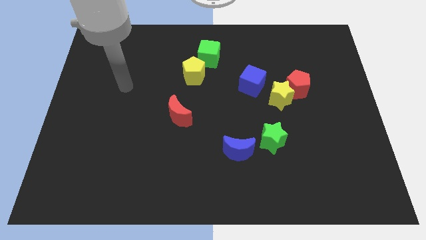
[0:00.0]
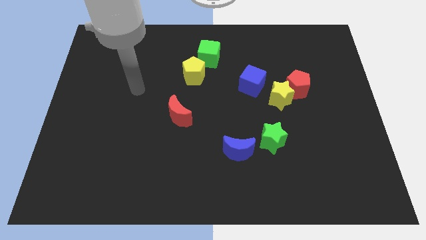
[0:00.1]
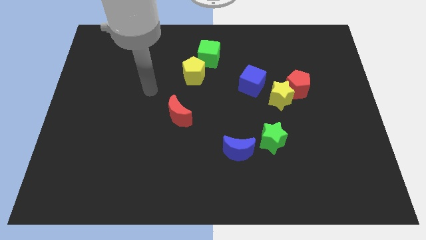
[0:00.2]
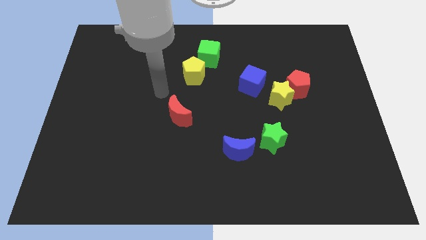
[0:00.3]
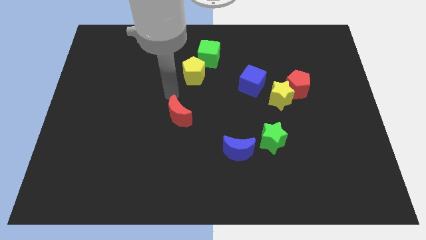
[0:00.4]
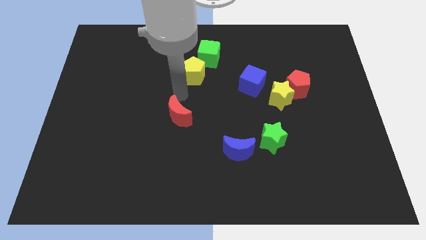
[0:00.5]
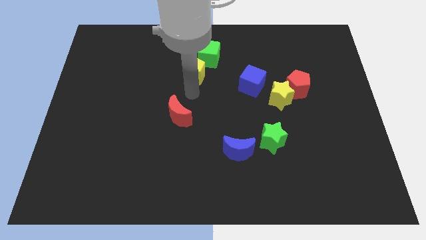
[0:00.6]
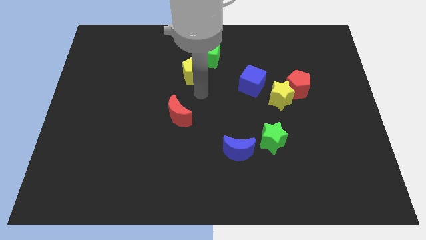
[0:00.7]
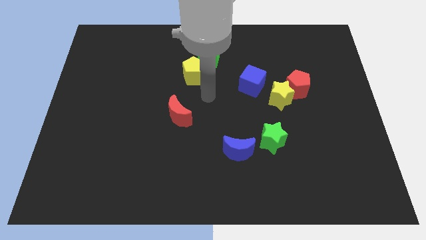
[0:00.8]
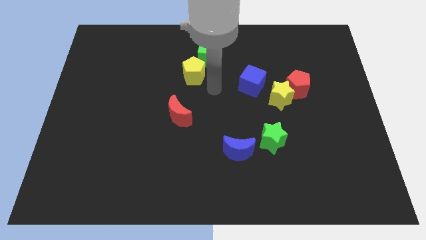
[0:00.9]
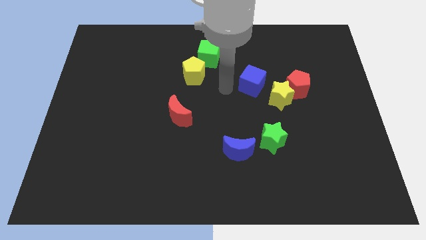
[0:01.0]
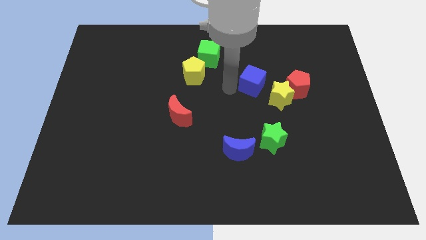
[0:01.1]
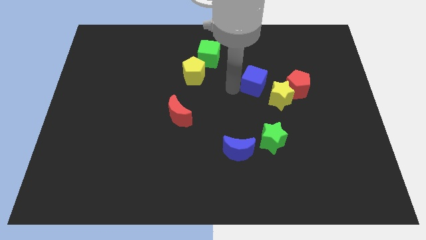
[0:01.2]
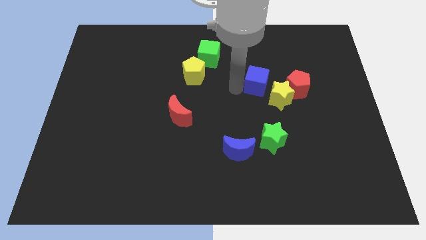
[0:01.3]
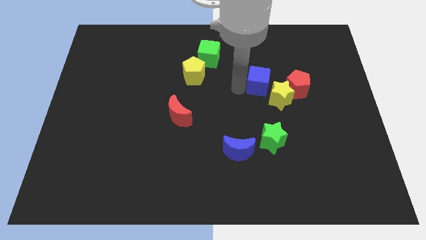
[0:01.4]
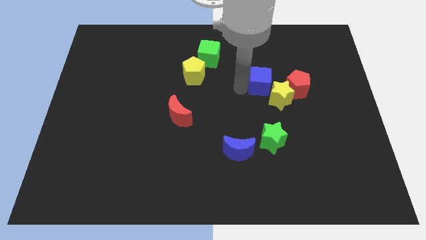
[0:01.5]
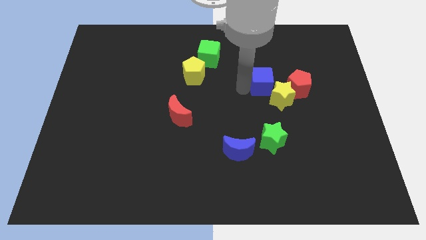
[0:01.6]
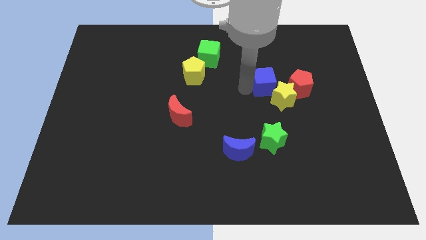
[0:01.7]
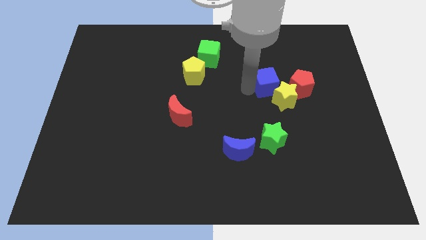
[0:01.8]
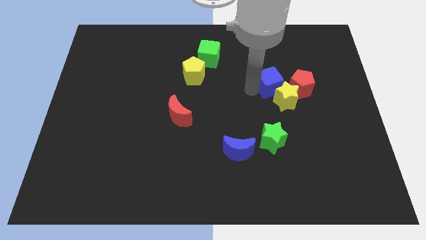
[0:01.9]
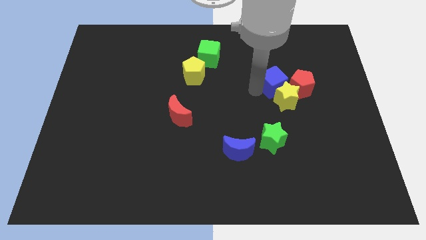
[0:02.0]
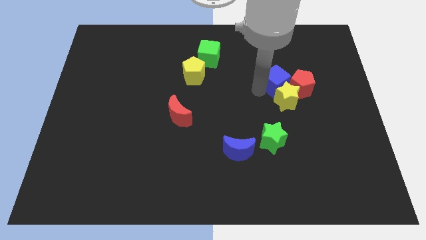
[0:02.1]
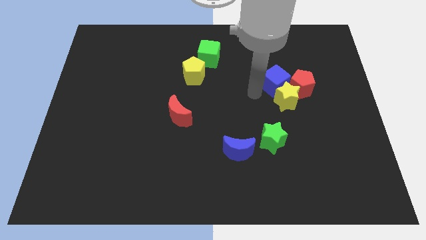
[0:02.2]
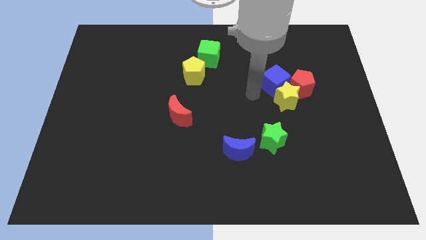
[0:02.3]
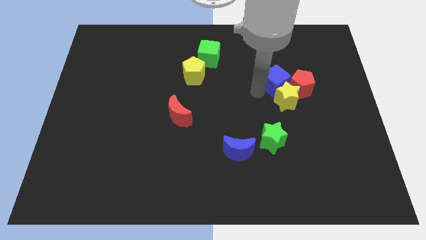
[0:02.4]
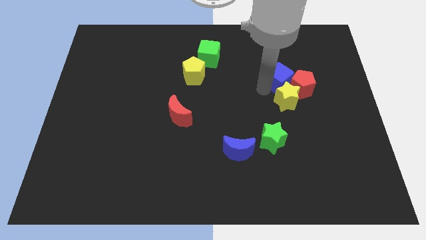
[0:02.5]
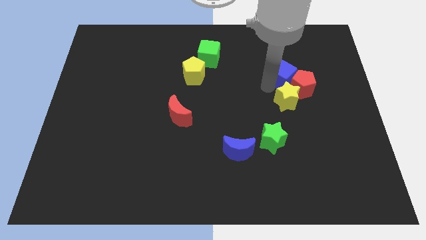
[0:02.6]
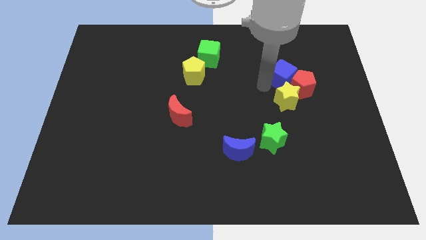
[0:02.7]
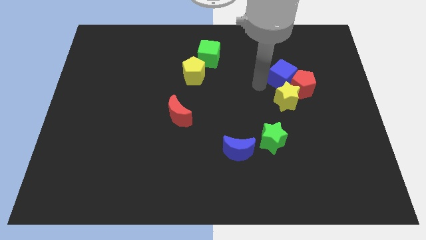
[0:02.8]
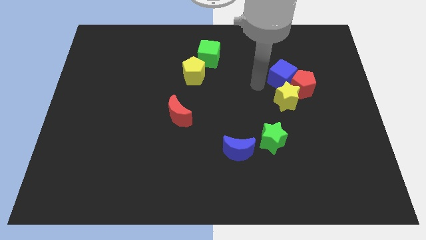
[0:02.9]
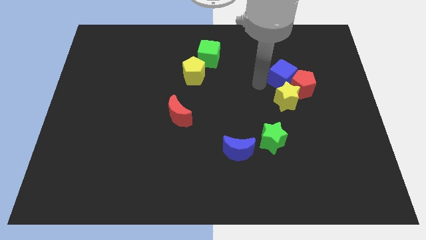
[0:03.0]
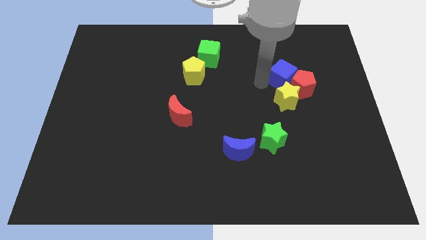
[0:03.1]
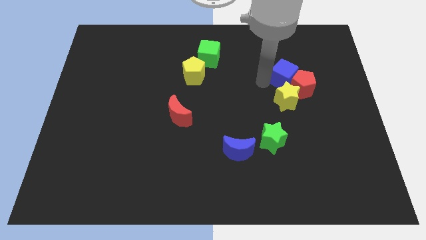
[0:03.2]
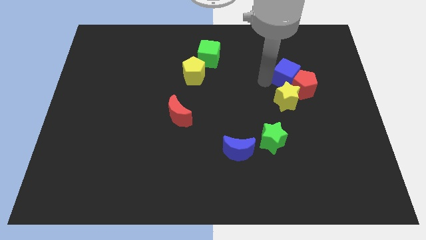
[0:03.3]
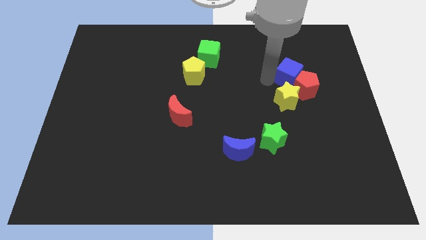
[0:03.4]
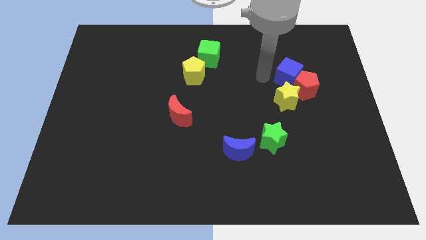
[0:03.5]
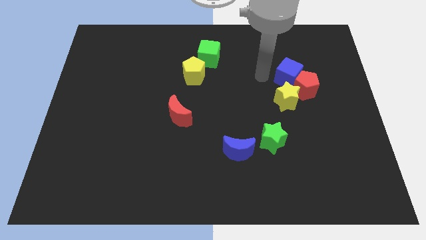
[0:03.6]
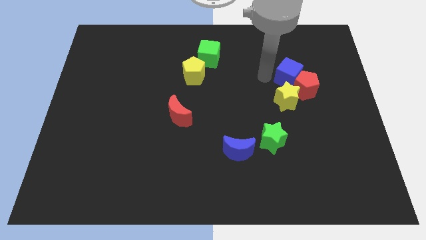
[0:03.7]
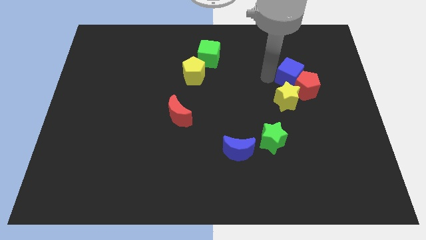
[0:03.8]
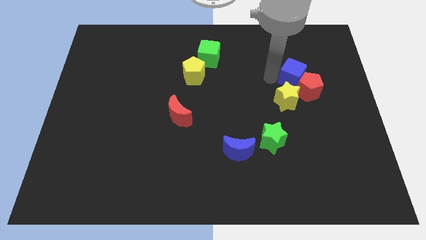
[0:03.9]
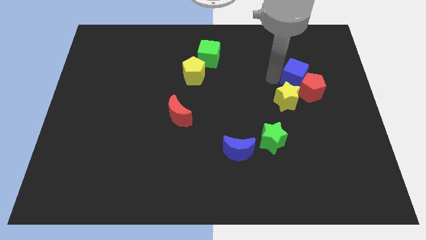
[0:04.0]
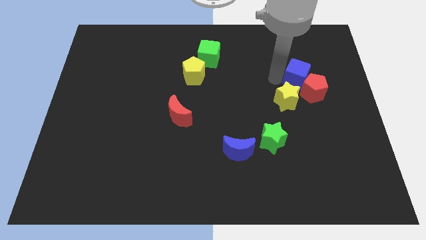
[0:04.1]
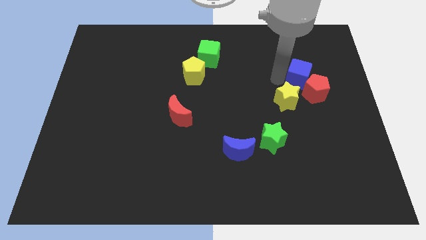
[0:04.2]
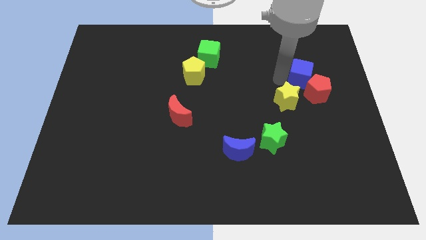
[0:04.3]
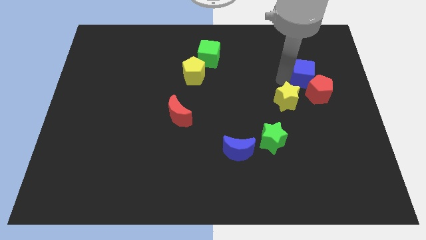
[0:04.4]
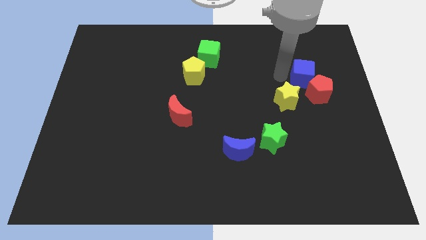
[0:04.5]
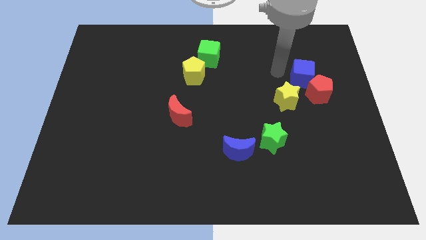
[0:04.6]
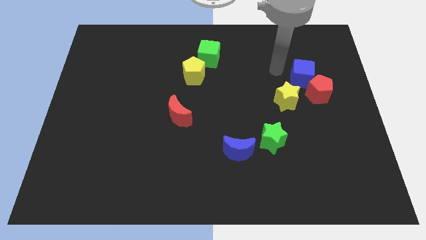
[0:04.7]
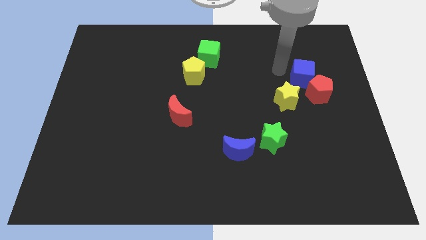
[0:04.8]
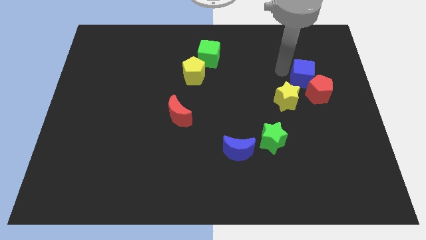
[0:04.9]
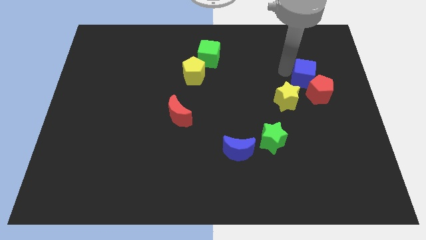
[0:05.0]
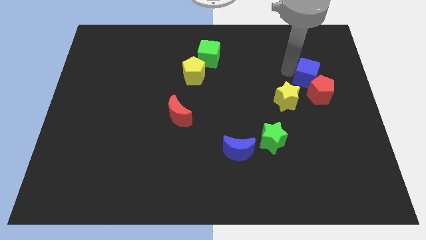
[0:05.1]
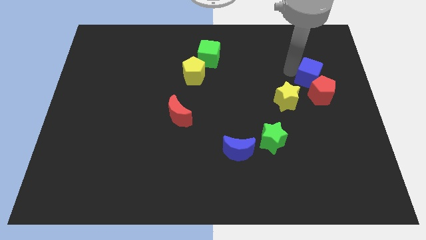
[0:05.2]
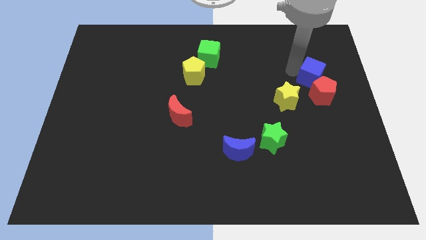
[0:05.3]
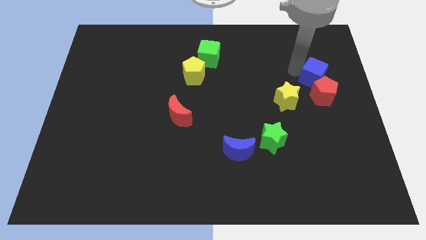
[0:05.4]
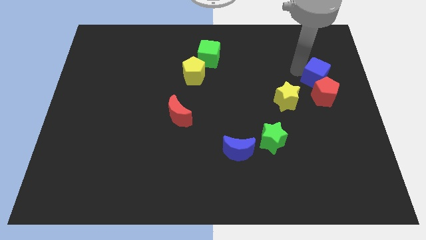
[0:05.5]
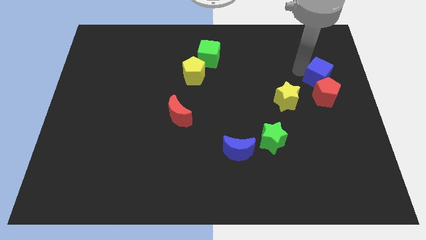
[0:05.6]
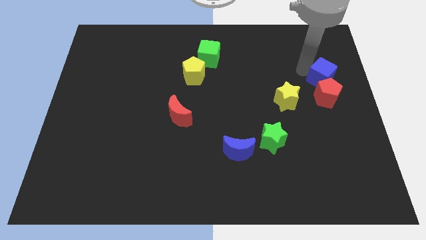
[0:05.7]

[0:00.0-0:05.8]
push the blue cube to the right side
